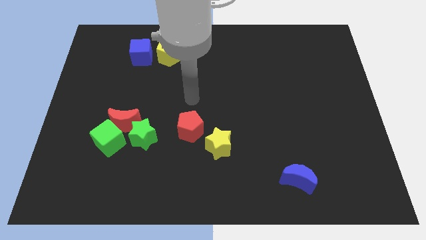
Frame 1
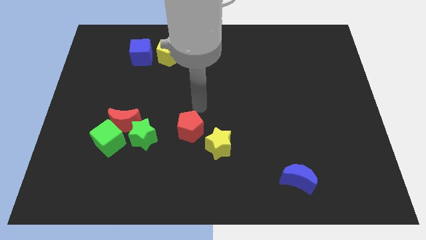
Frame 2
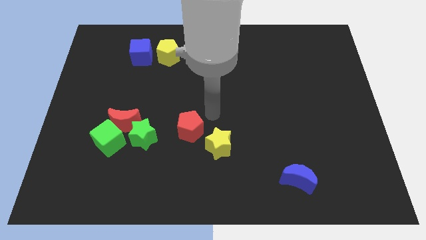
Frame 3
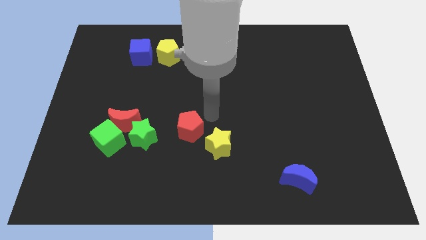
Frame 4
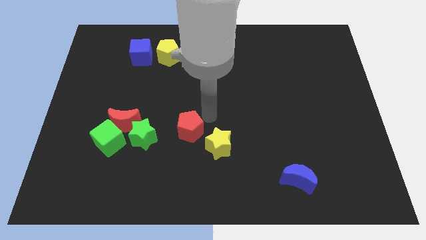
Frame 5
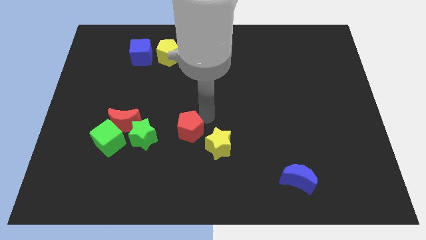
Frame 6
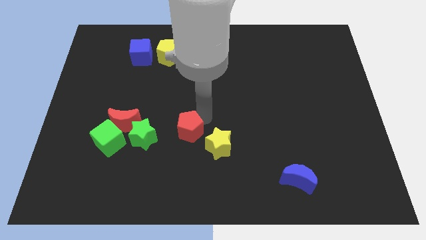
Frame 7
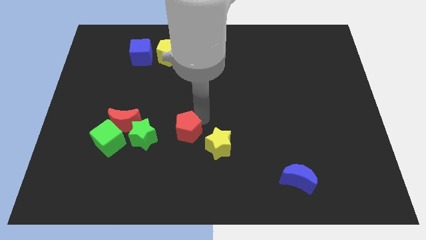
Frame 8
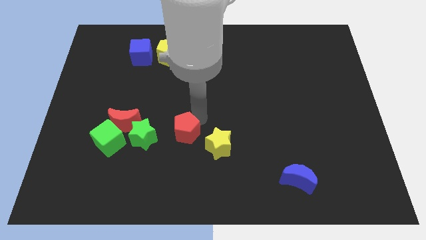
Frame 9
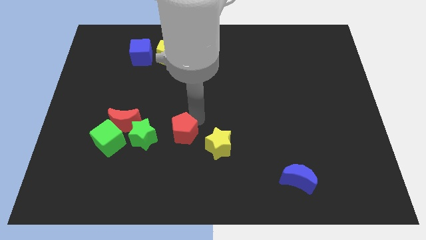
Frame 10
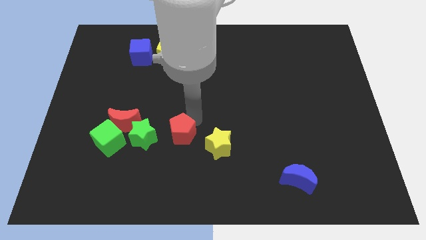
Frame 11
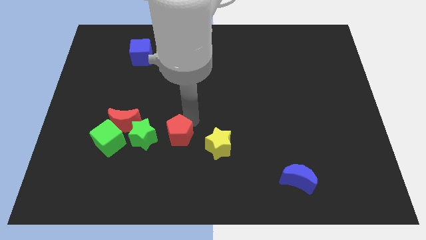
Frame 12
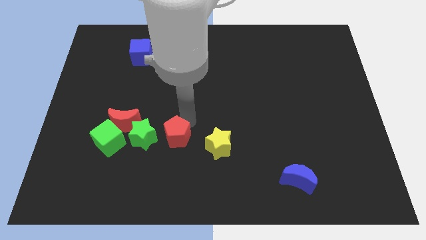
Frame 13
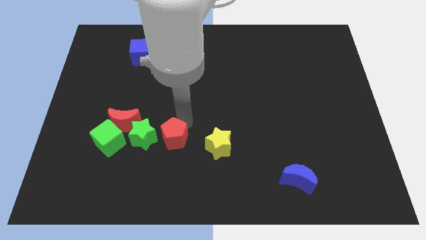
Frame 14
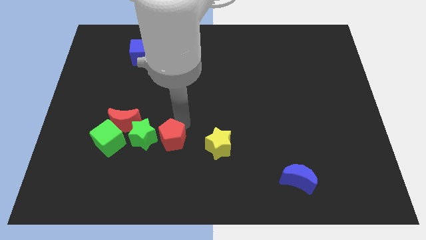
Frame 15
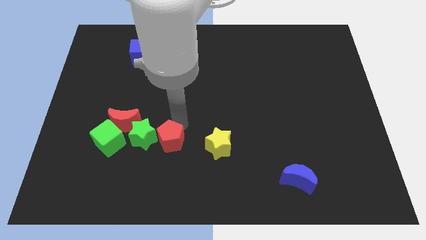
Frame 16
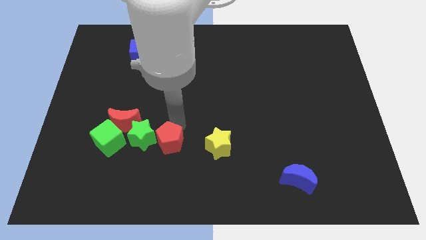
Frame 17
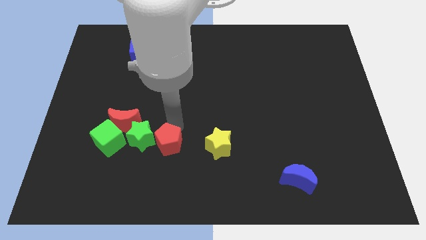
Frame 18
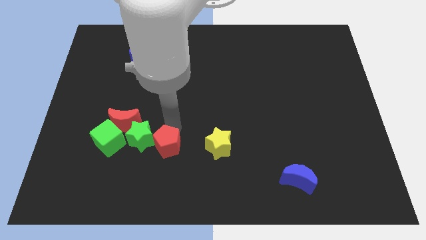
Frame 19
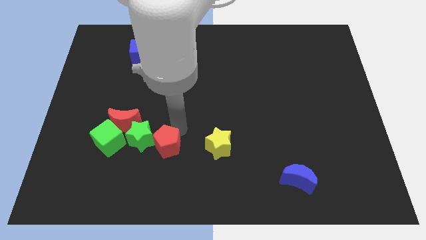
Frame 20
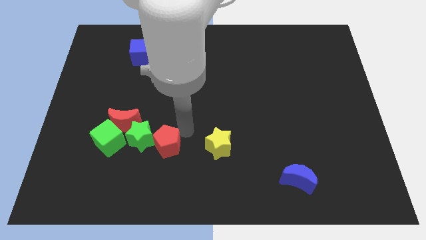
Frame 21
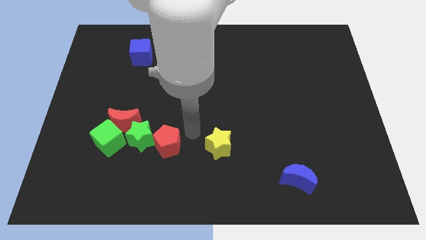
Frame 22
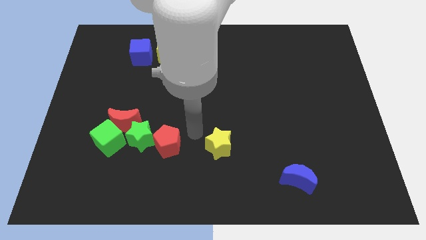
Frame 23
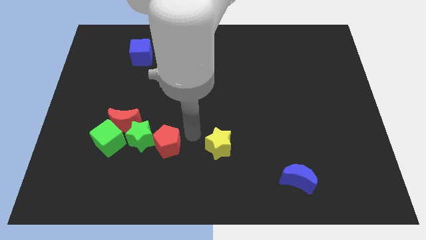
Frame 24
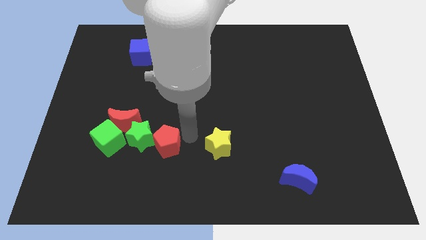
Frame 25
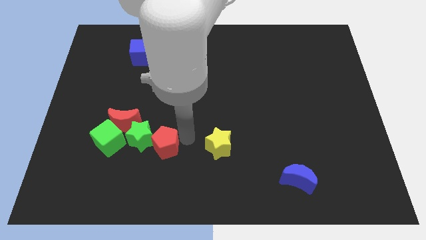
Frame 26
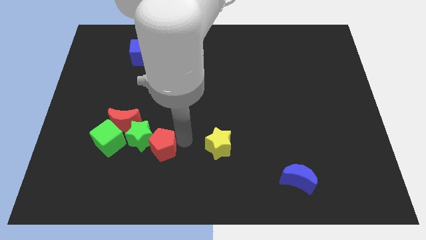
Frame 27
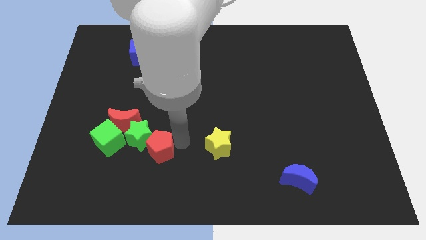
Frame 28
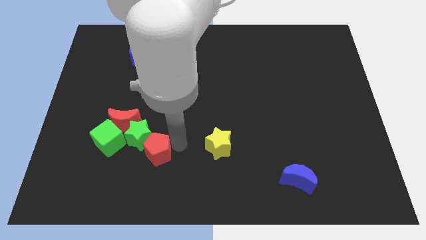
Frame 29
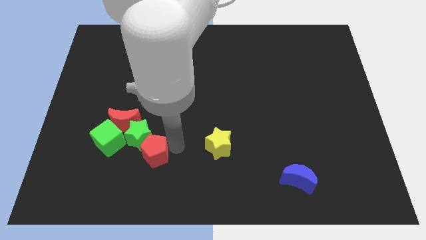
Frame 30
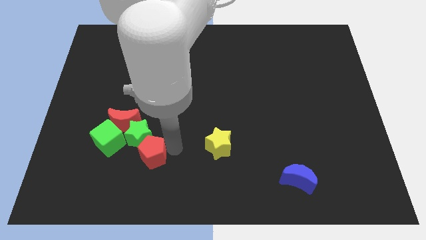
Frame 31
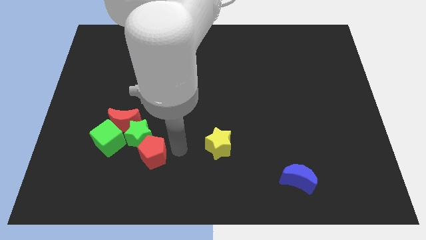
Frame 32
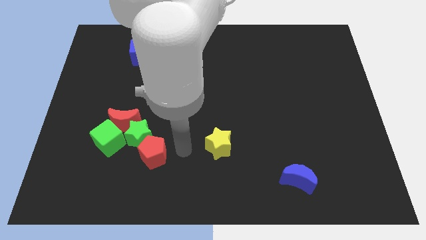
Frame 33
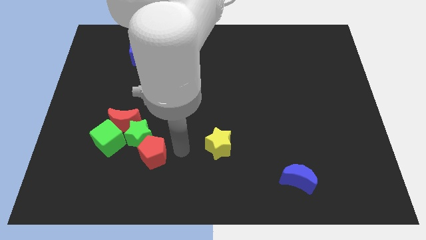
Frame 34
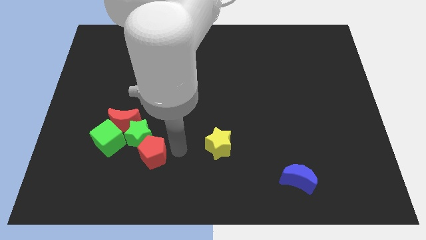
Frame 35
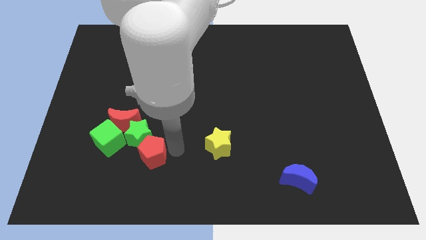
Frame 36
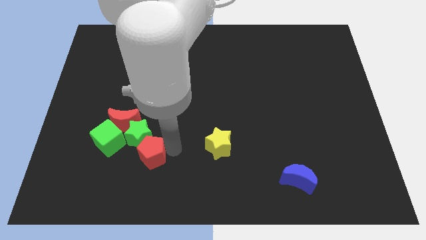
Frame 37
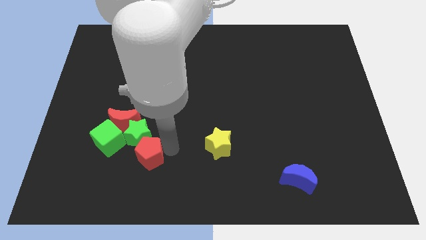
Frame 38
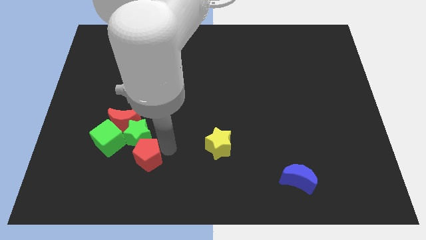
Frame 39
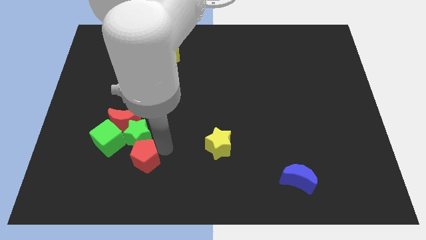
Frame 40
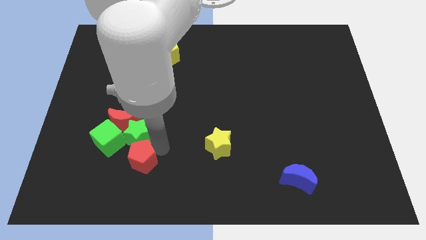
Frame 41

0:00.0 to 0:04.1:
push the red pentagon to the bottom of the red moon

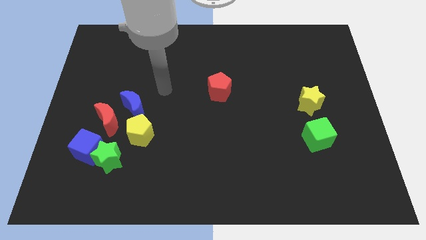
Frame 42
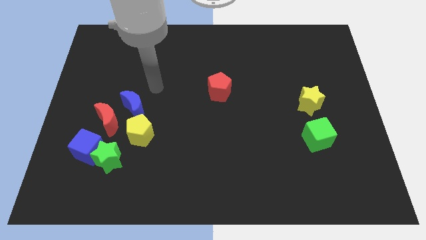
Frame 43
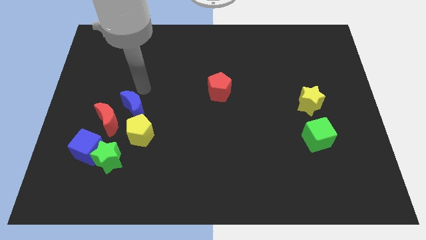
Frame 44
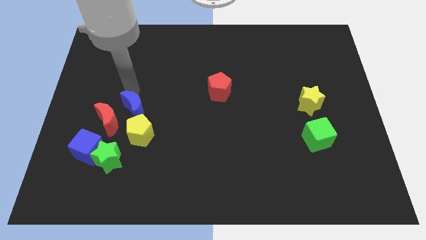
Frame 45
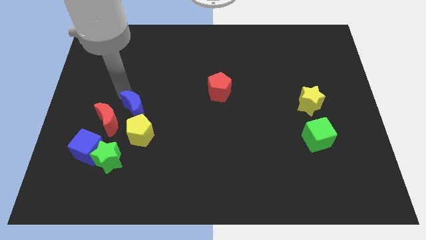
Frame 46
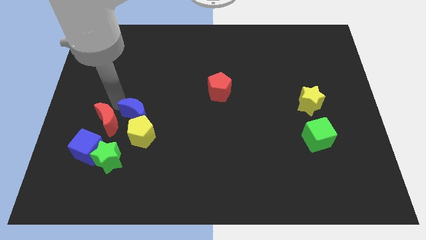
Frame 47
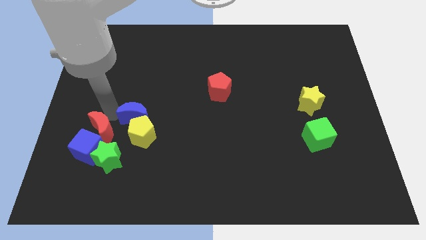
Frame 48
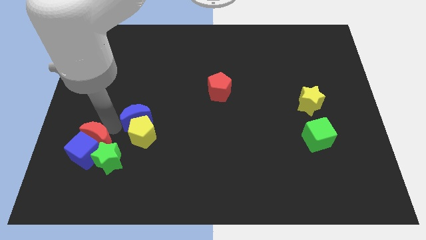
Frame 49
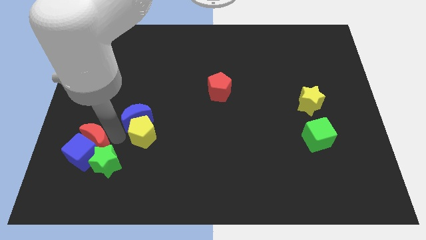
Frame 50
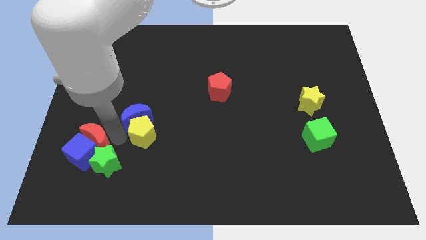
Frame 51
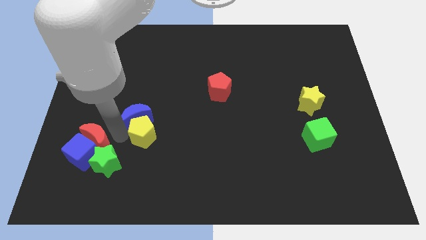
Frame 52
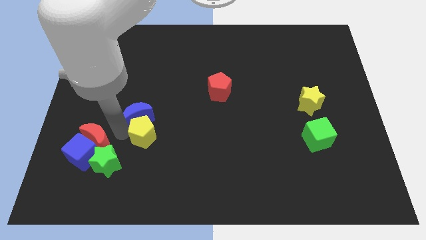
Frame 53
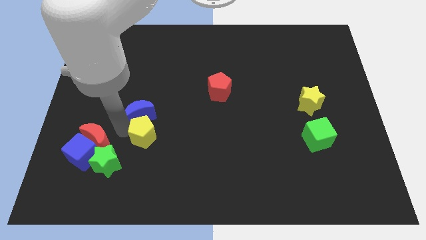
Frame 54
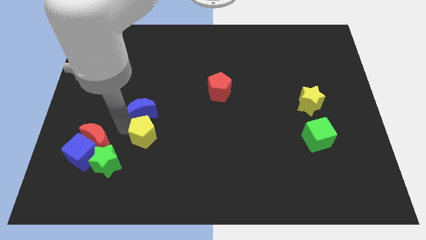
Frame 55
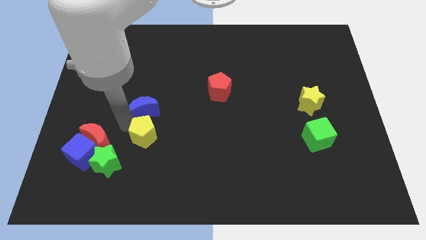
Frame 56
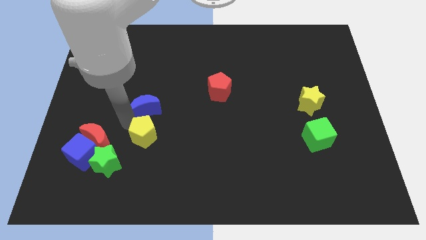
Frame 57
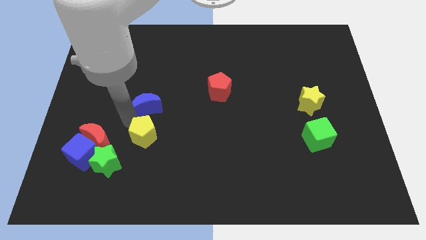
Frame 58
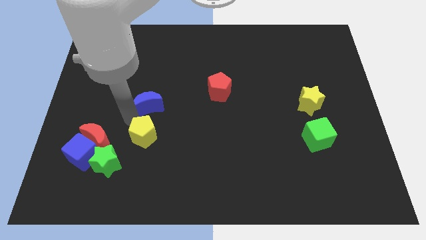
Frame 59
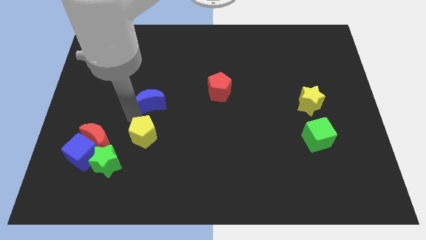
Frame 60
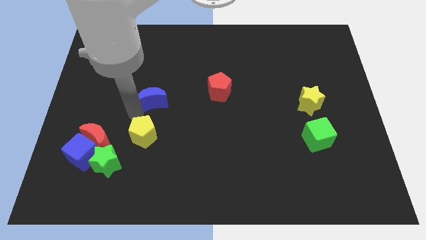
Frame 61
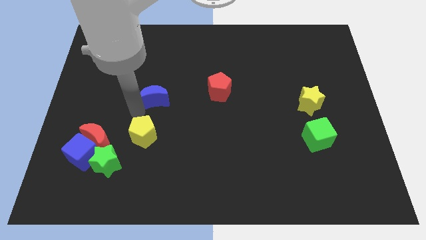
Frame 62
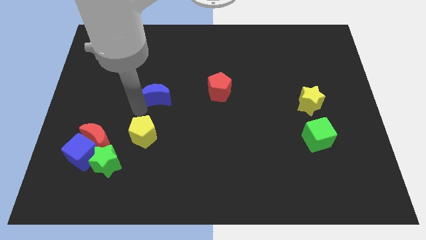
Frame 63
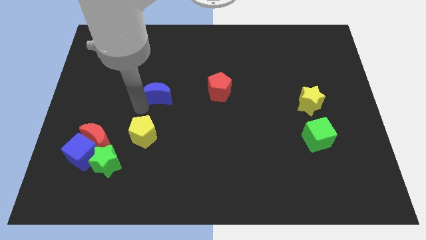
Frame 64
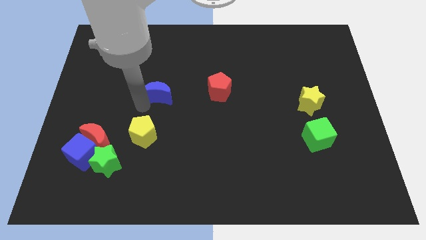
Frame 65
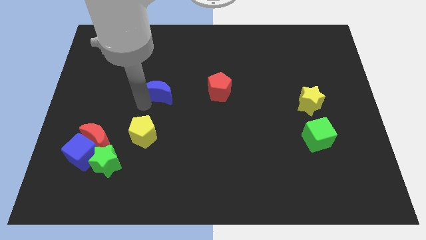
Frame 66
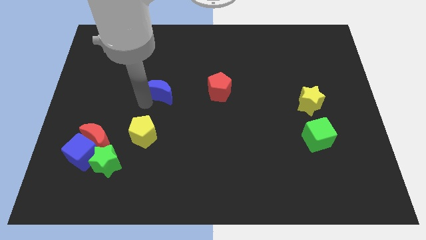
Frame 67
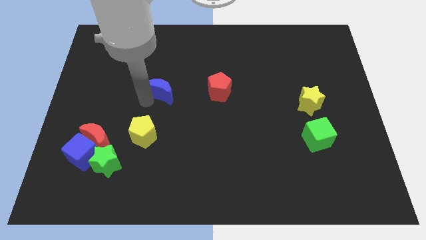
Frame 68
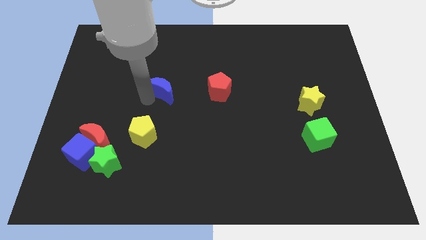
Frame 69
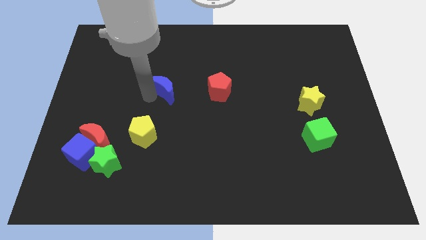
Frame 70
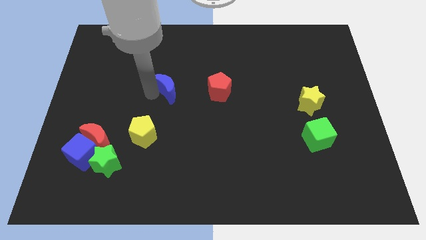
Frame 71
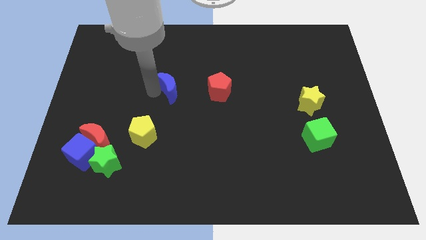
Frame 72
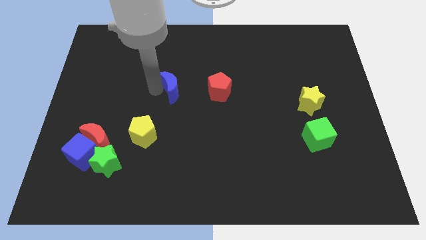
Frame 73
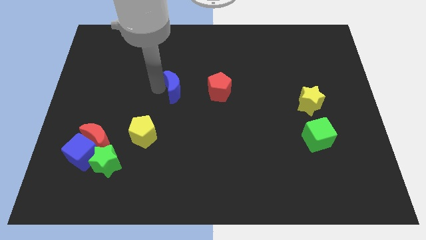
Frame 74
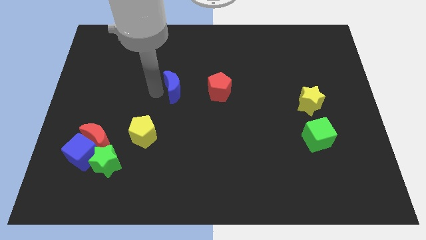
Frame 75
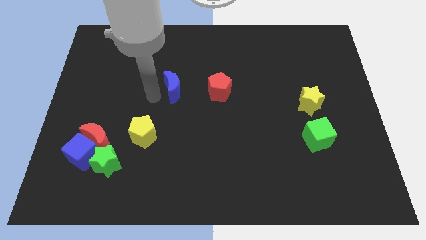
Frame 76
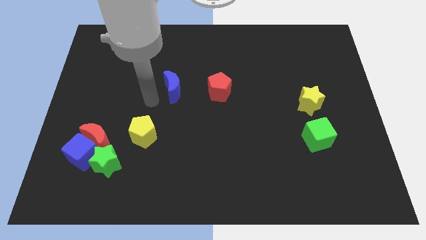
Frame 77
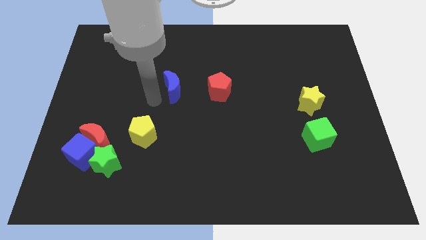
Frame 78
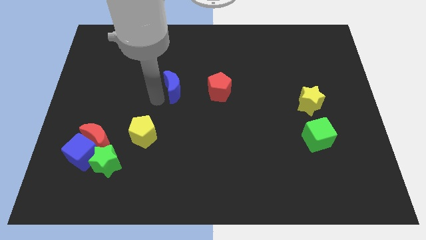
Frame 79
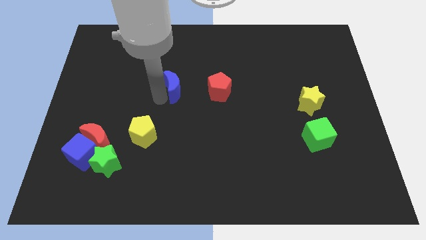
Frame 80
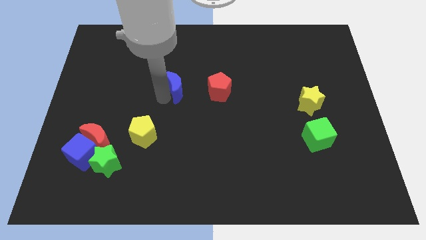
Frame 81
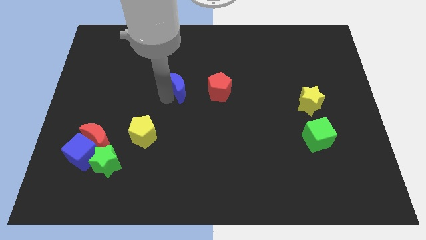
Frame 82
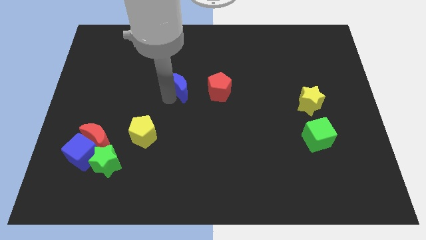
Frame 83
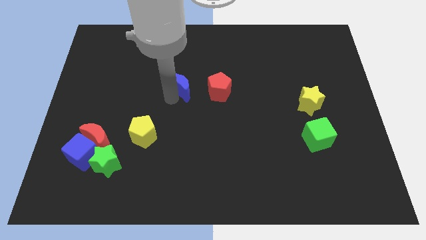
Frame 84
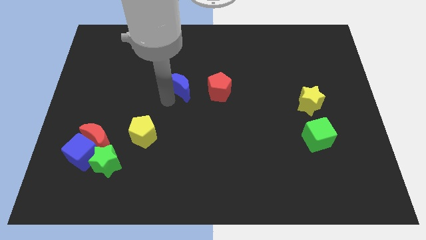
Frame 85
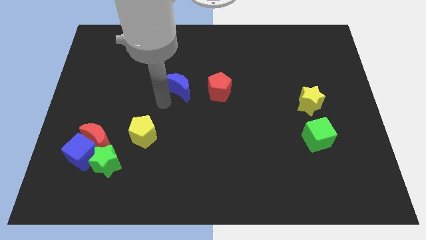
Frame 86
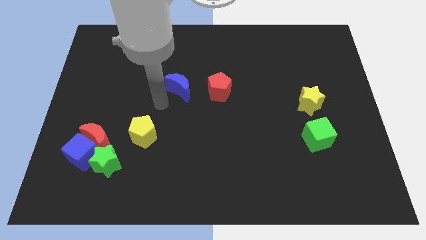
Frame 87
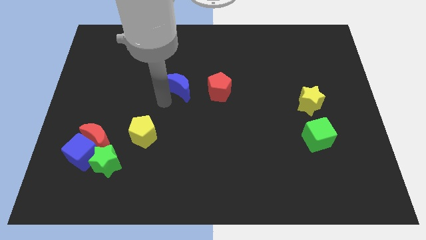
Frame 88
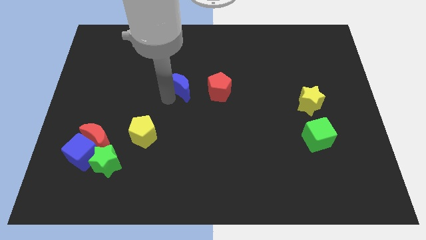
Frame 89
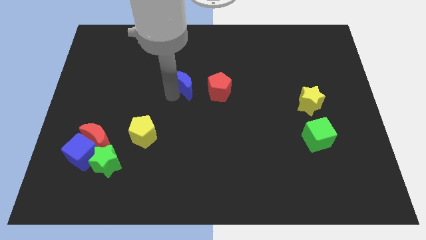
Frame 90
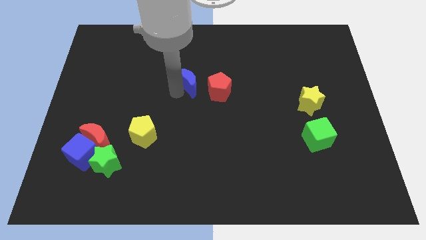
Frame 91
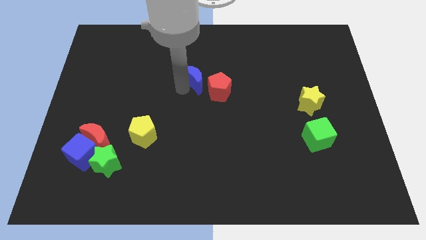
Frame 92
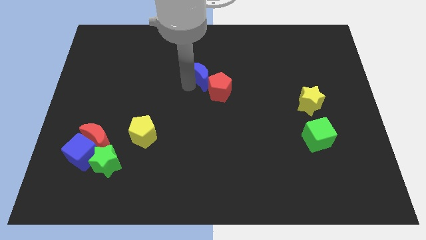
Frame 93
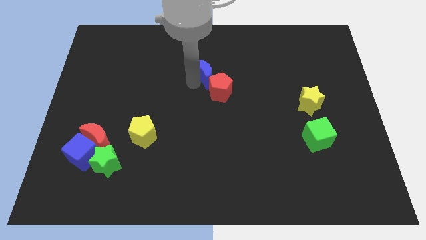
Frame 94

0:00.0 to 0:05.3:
move the blue moon to the top side of the red pentagon
